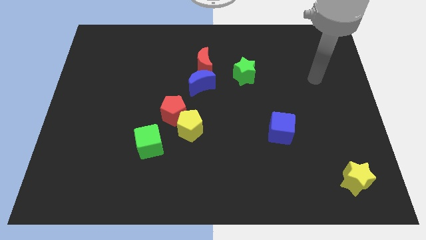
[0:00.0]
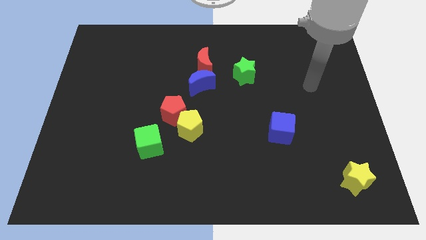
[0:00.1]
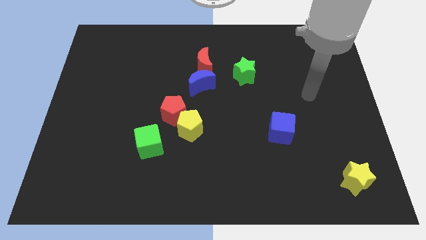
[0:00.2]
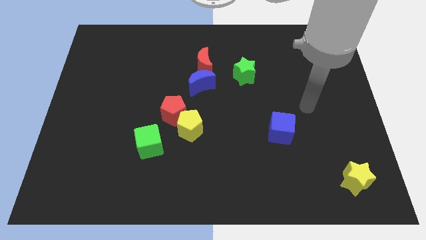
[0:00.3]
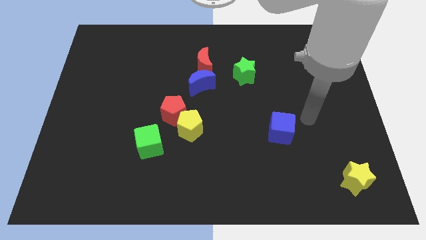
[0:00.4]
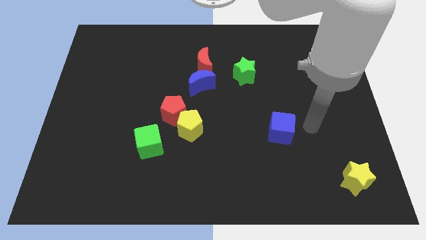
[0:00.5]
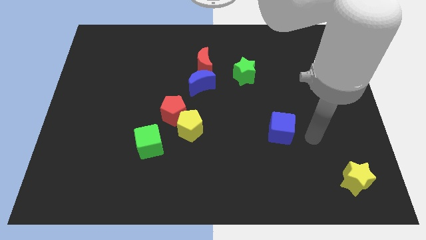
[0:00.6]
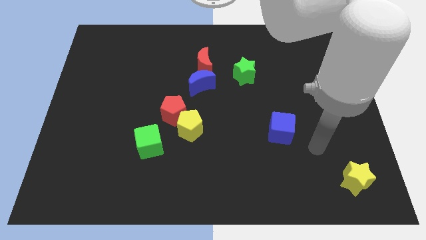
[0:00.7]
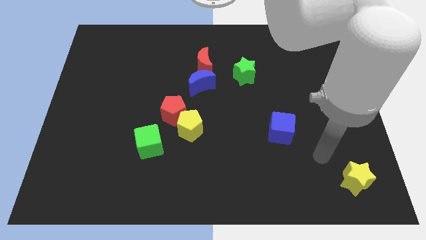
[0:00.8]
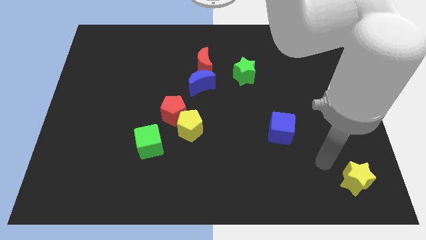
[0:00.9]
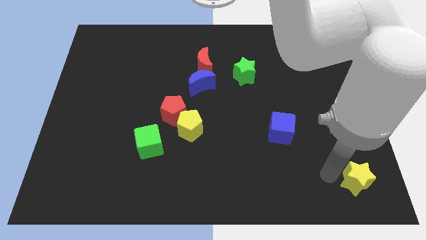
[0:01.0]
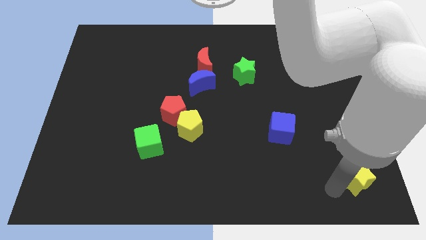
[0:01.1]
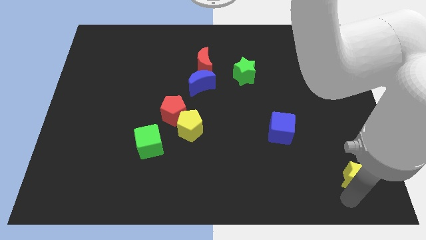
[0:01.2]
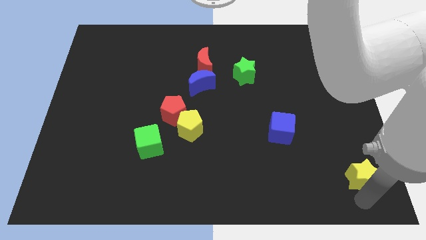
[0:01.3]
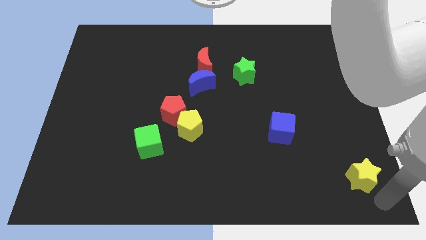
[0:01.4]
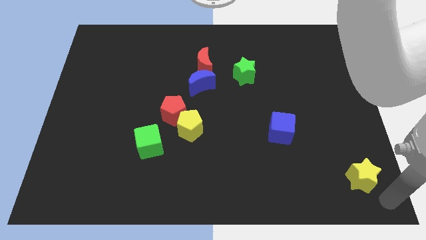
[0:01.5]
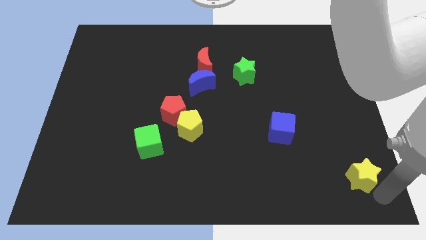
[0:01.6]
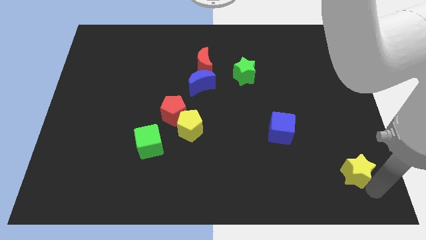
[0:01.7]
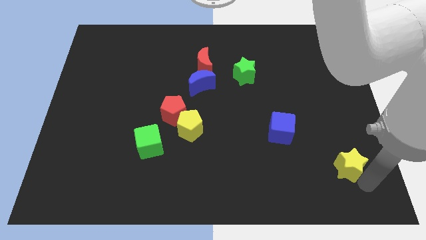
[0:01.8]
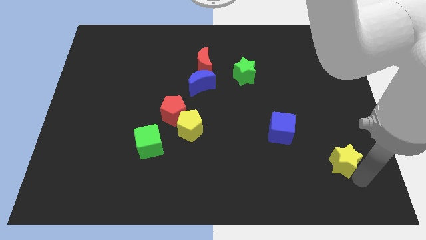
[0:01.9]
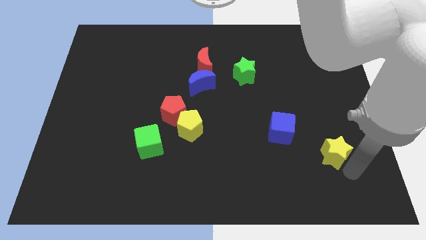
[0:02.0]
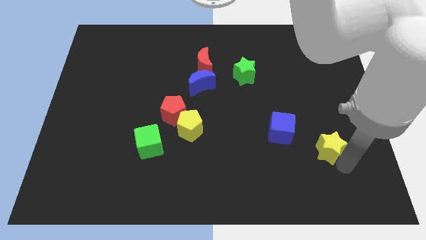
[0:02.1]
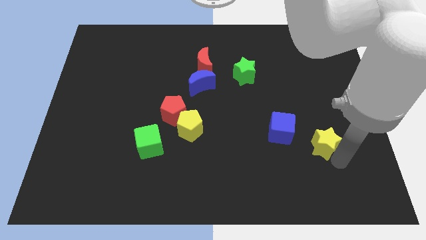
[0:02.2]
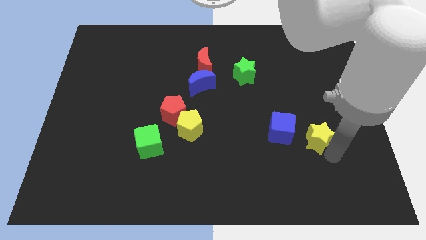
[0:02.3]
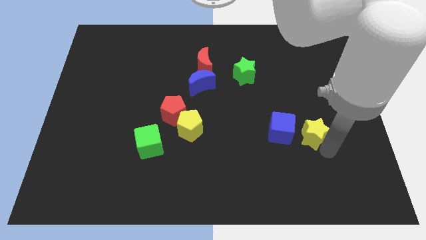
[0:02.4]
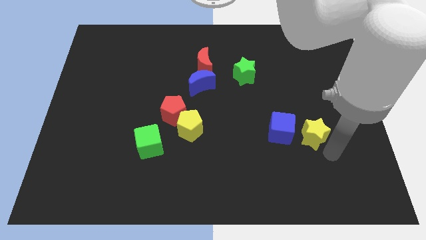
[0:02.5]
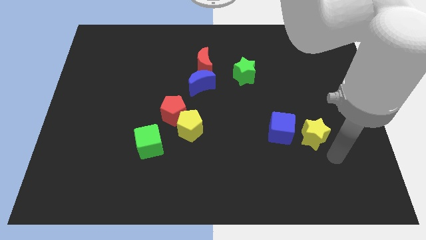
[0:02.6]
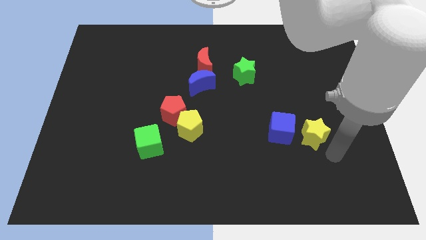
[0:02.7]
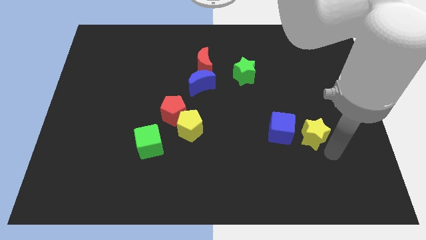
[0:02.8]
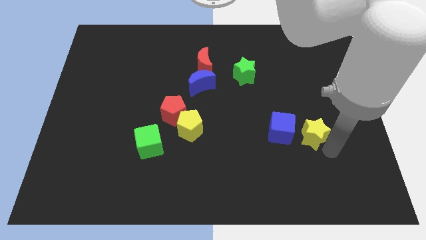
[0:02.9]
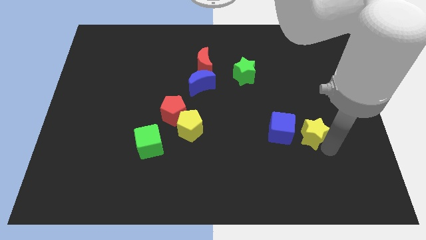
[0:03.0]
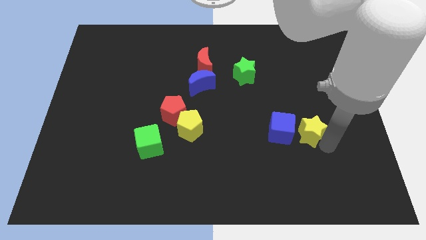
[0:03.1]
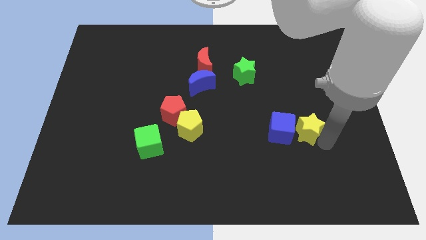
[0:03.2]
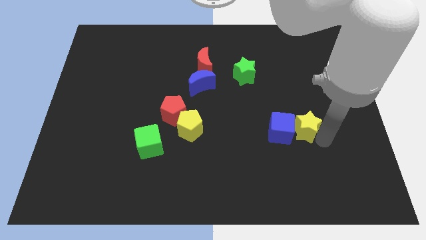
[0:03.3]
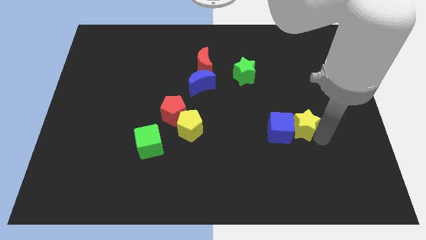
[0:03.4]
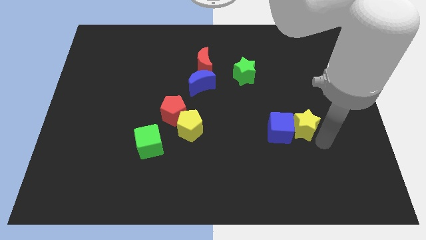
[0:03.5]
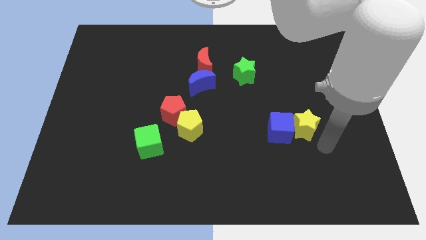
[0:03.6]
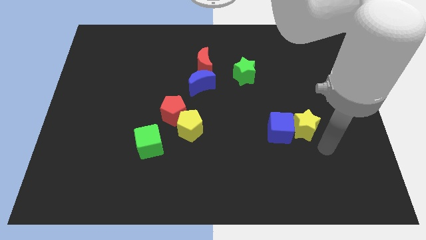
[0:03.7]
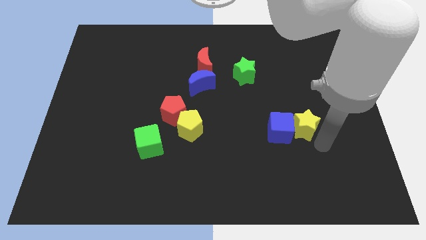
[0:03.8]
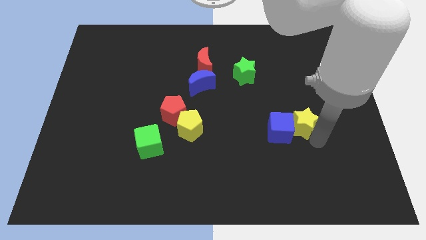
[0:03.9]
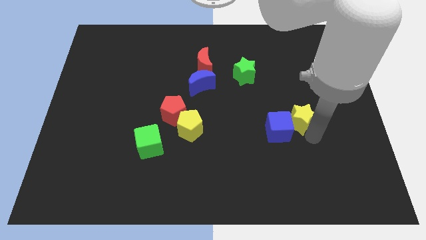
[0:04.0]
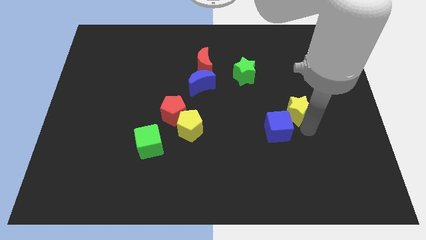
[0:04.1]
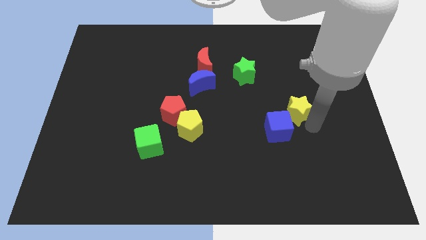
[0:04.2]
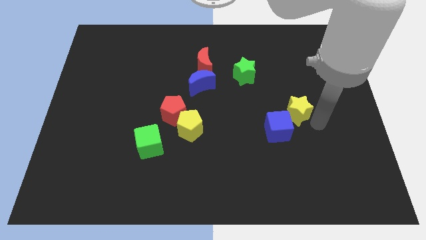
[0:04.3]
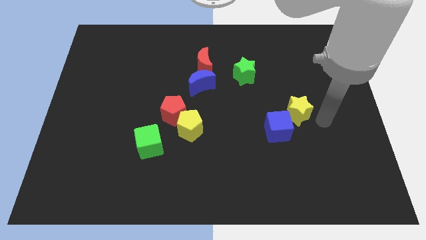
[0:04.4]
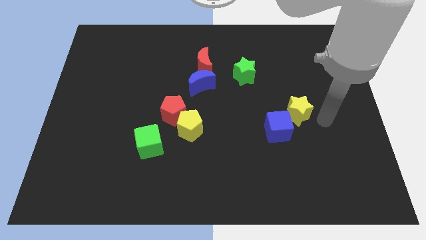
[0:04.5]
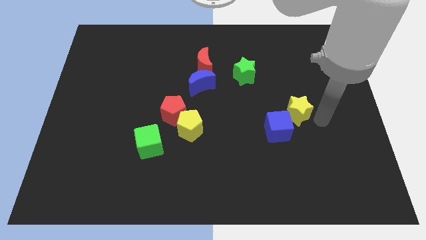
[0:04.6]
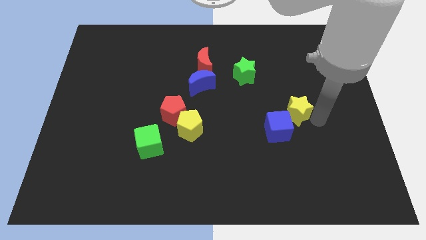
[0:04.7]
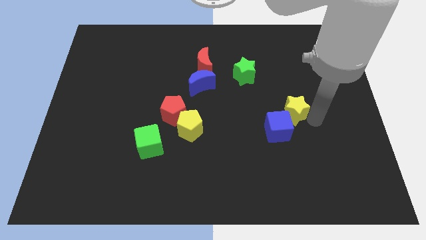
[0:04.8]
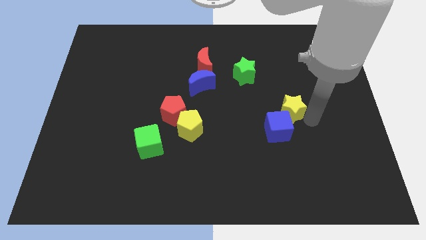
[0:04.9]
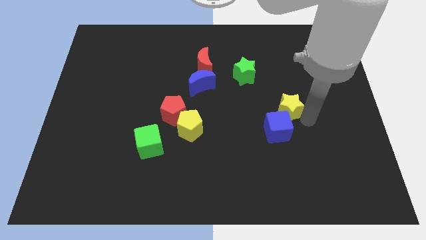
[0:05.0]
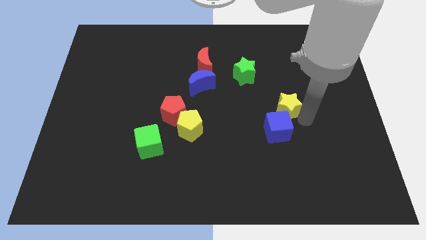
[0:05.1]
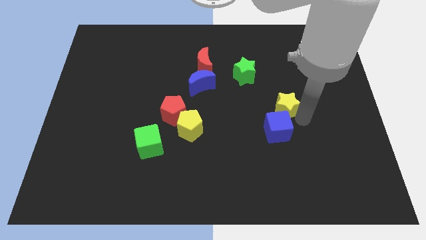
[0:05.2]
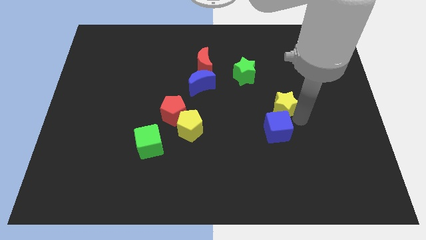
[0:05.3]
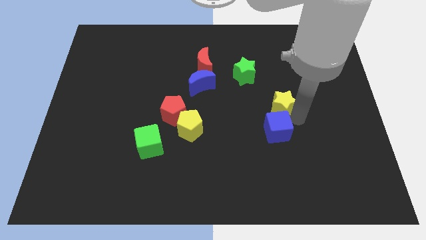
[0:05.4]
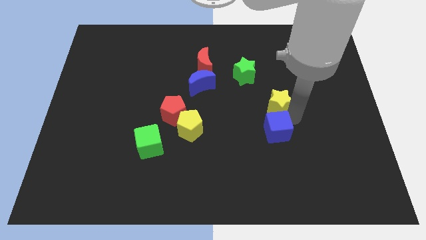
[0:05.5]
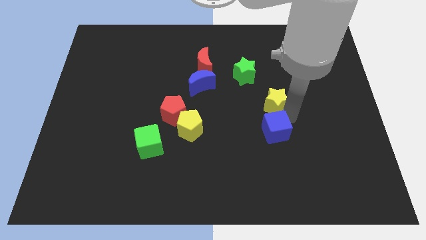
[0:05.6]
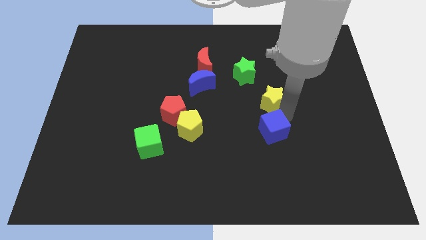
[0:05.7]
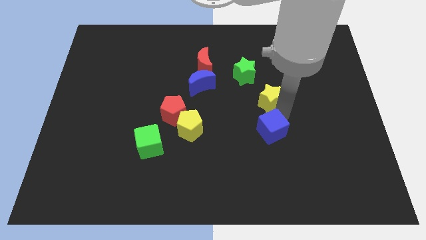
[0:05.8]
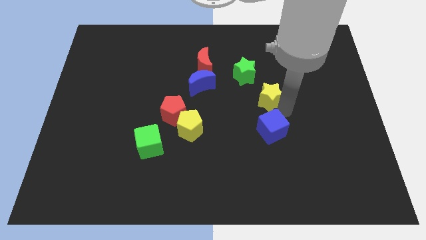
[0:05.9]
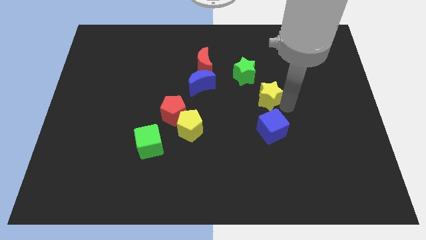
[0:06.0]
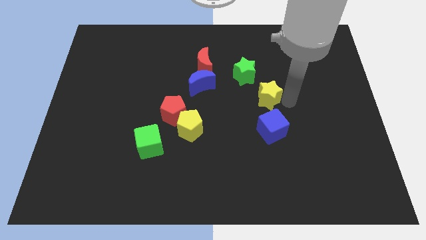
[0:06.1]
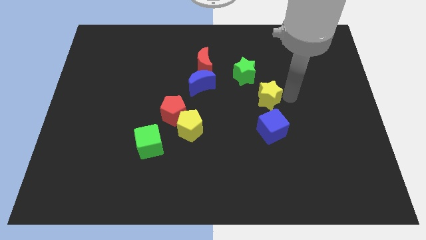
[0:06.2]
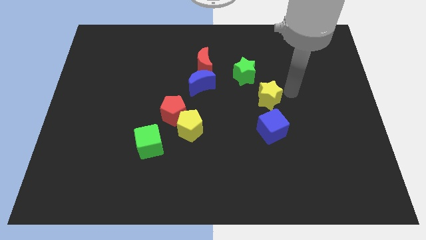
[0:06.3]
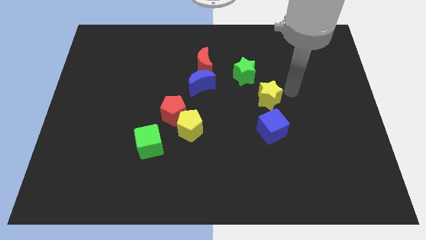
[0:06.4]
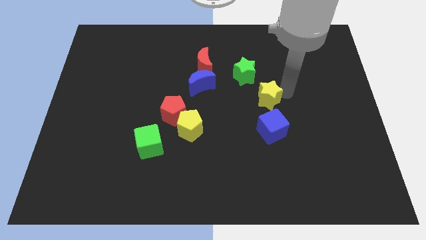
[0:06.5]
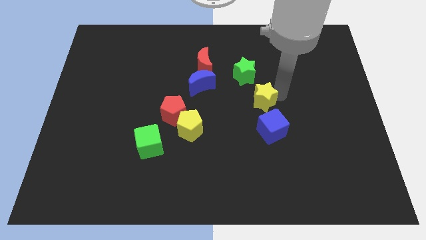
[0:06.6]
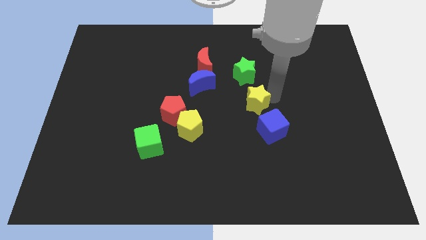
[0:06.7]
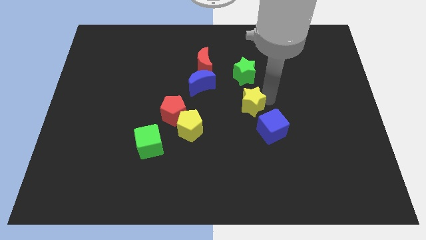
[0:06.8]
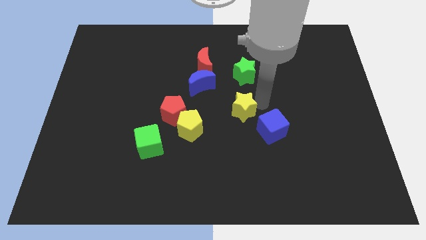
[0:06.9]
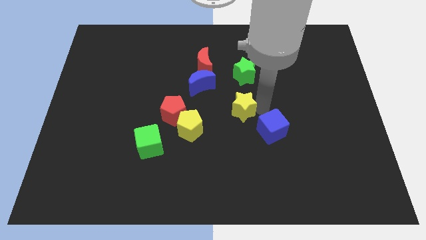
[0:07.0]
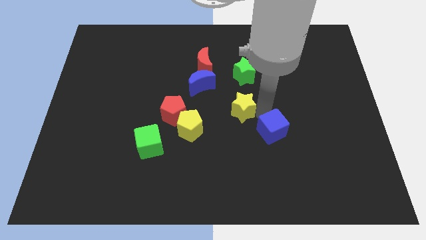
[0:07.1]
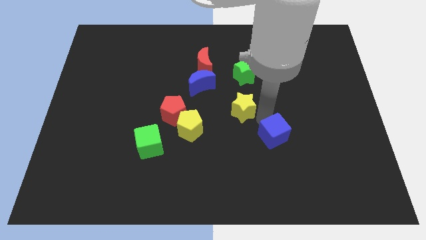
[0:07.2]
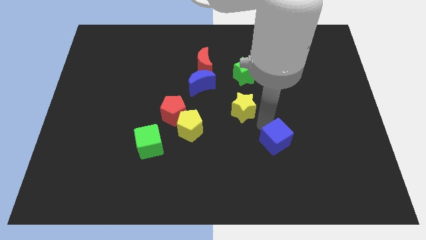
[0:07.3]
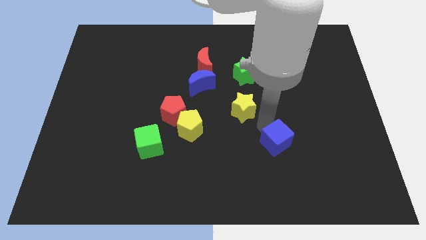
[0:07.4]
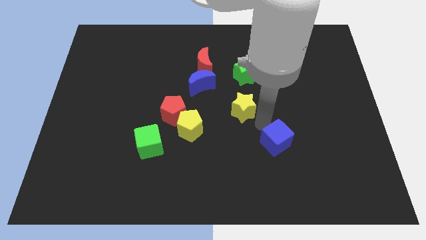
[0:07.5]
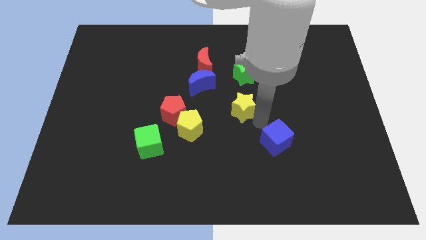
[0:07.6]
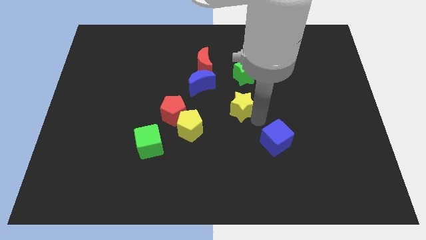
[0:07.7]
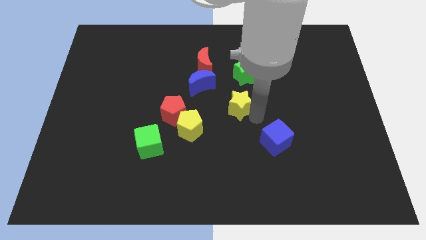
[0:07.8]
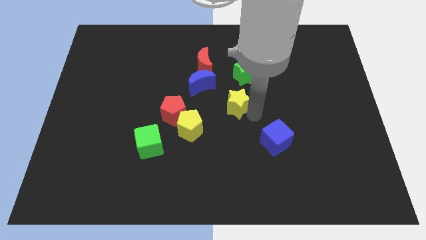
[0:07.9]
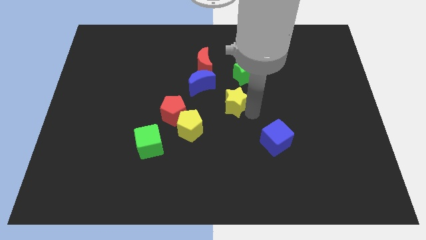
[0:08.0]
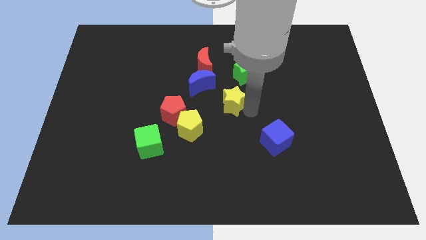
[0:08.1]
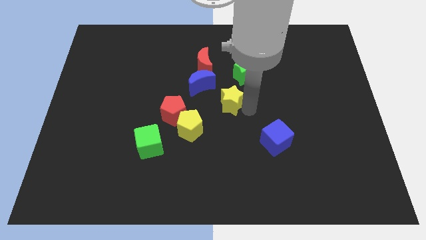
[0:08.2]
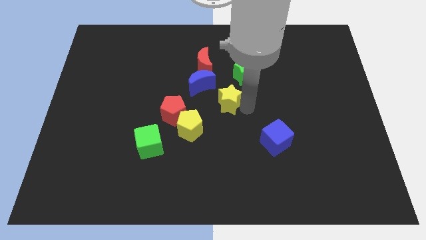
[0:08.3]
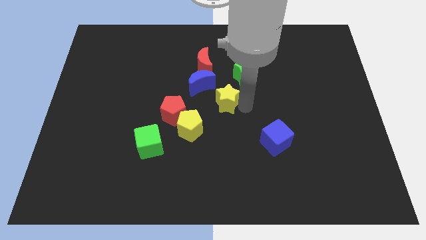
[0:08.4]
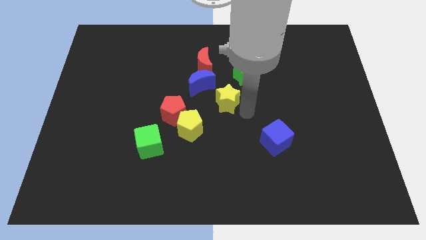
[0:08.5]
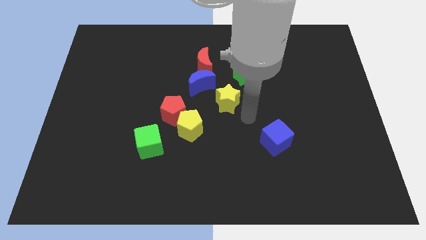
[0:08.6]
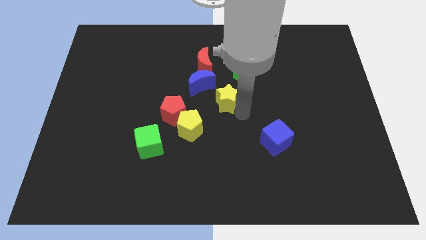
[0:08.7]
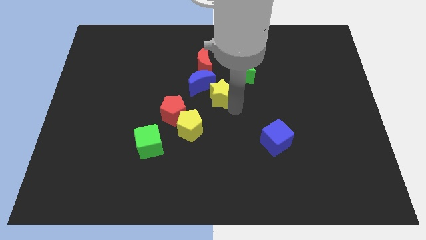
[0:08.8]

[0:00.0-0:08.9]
push the yellow star next to the blue moon
